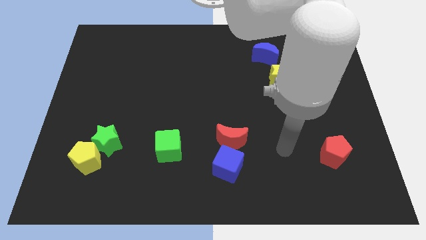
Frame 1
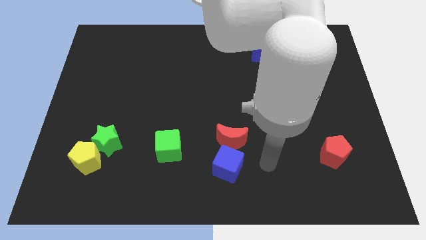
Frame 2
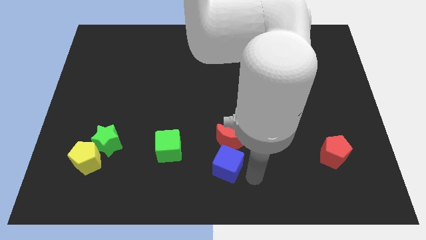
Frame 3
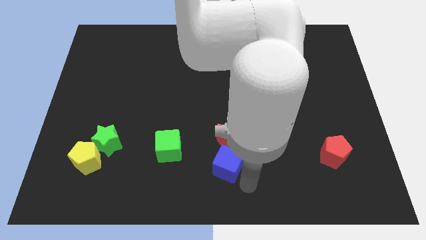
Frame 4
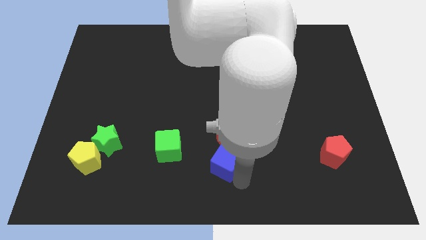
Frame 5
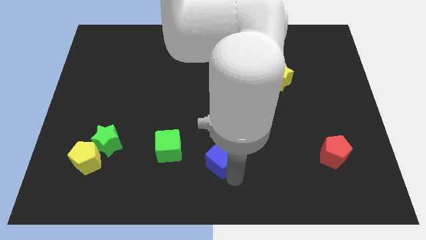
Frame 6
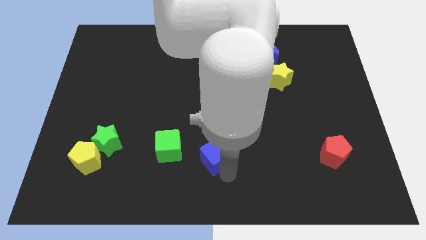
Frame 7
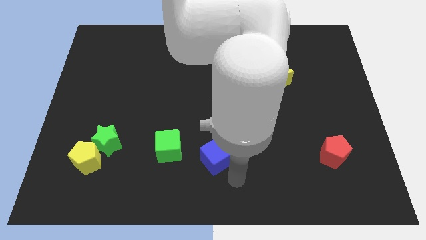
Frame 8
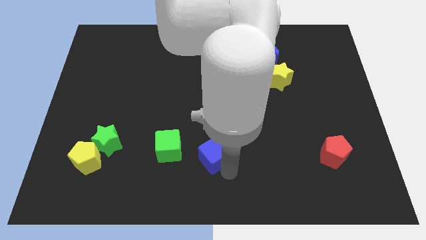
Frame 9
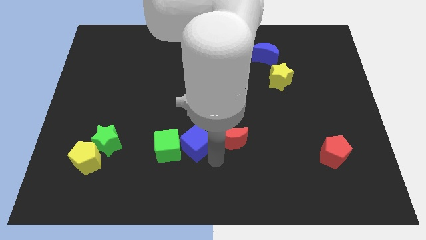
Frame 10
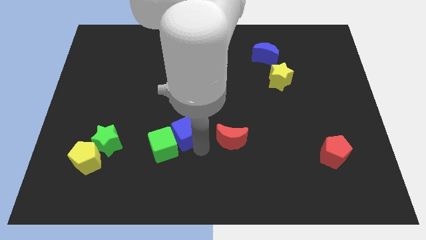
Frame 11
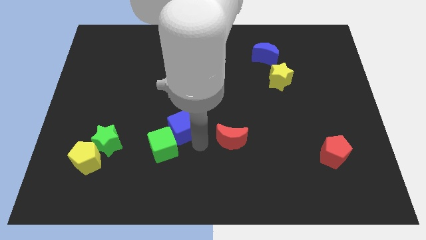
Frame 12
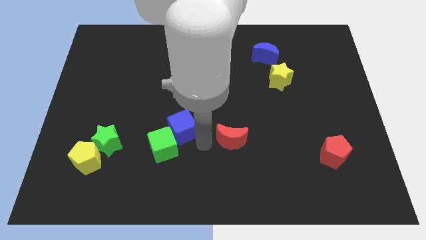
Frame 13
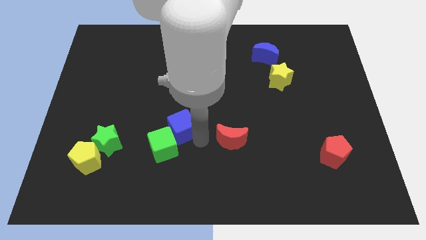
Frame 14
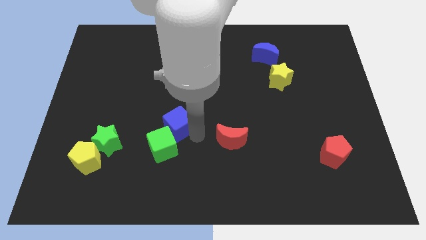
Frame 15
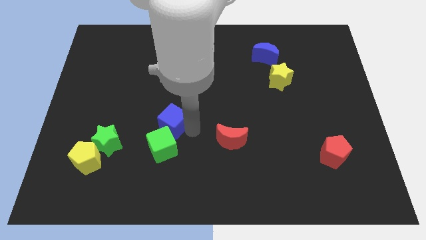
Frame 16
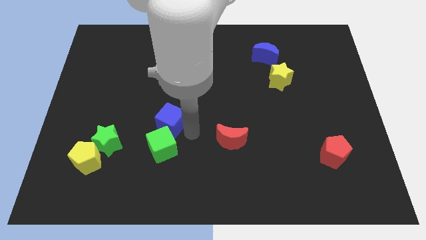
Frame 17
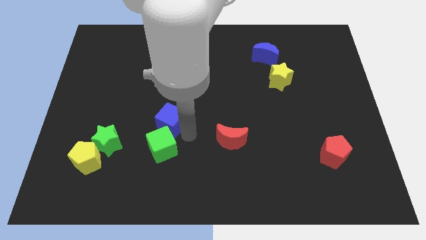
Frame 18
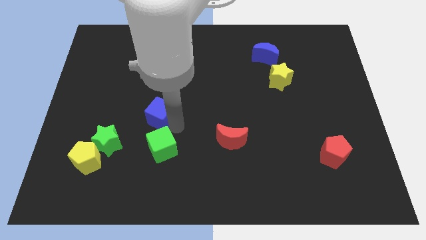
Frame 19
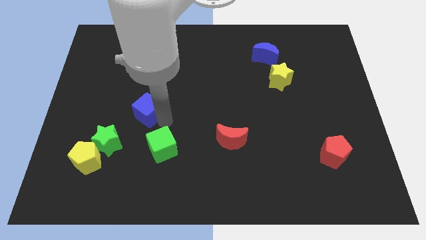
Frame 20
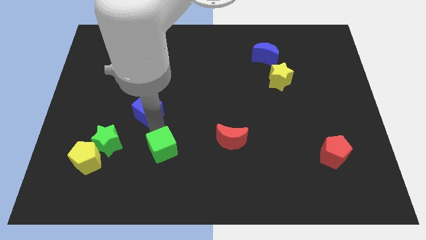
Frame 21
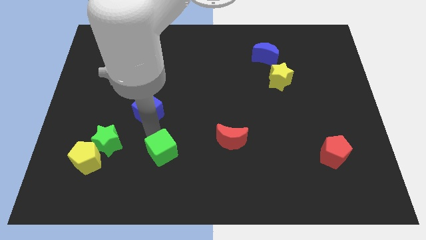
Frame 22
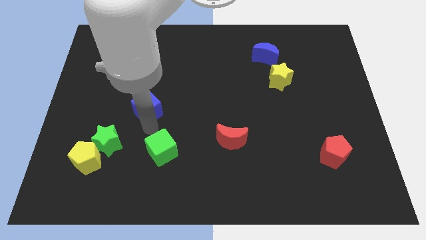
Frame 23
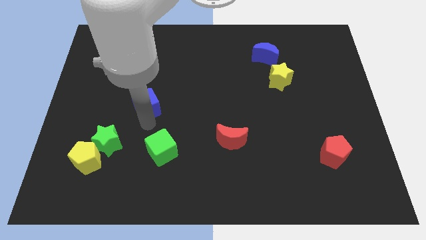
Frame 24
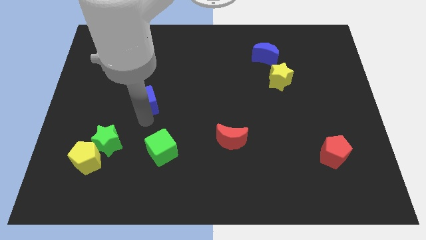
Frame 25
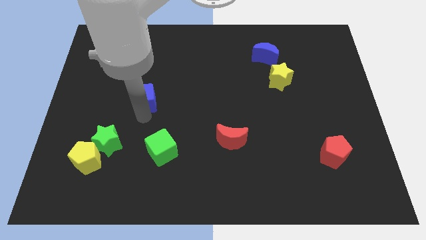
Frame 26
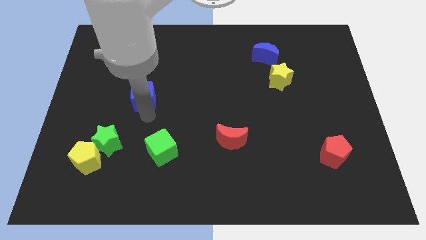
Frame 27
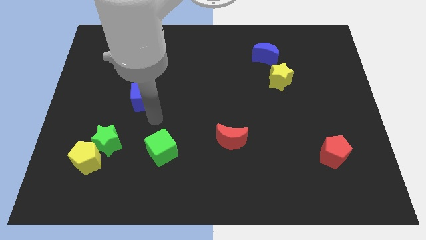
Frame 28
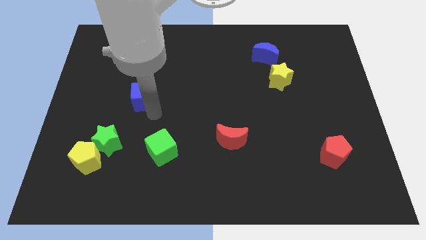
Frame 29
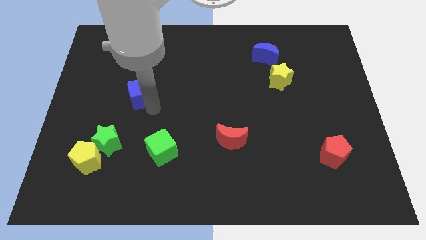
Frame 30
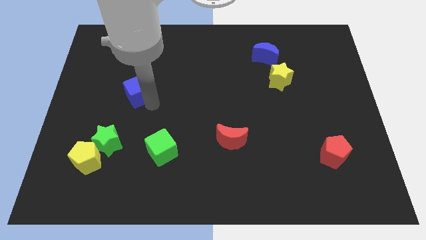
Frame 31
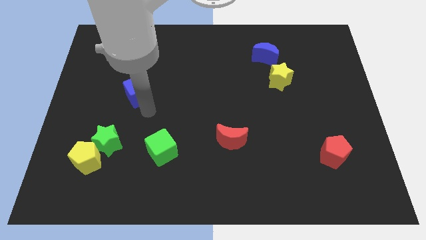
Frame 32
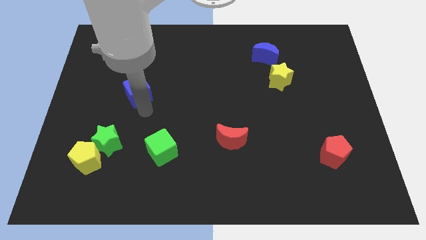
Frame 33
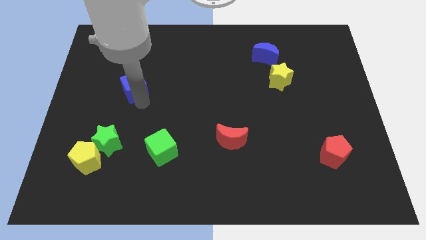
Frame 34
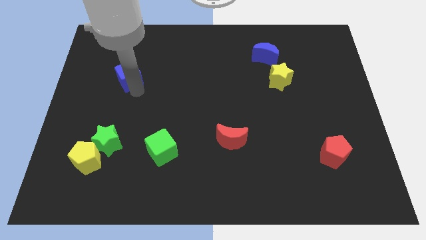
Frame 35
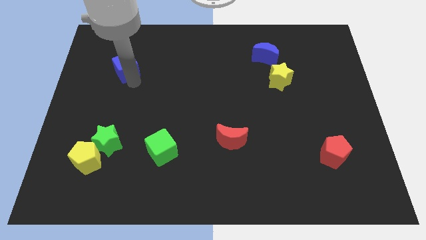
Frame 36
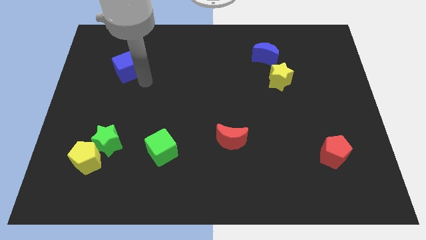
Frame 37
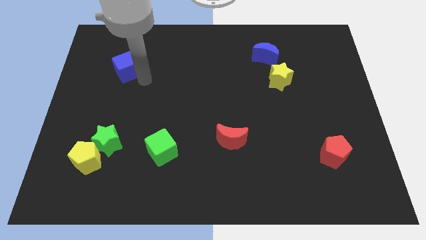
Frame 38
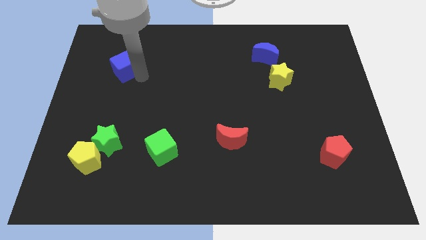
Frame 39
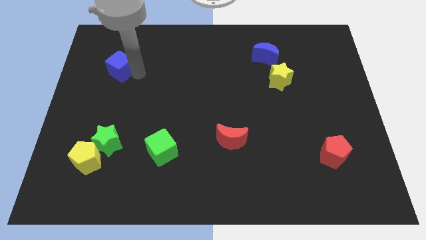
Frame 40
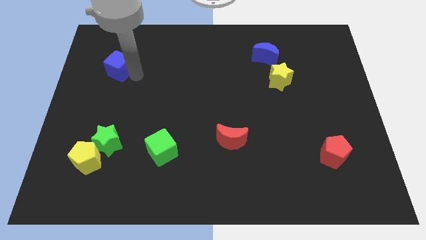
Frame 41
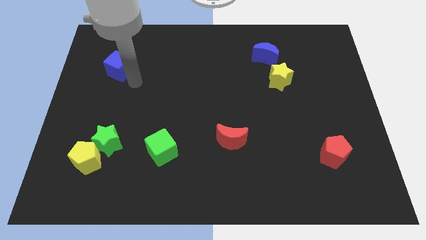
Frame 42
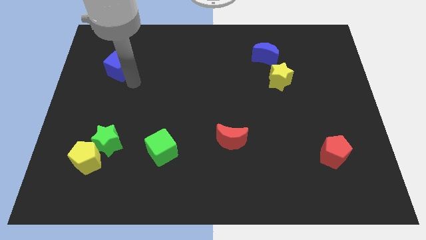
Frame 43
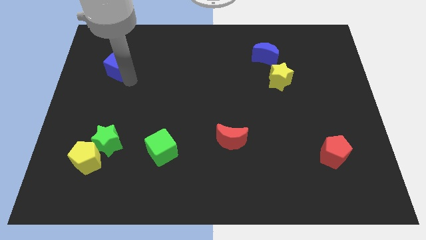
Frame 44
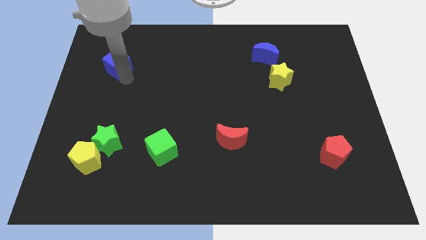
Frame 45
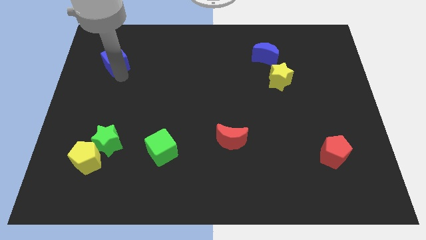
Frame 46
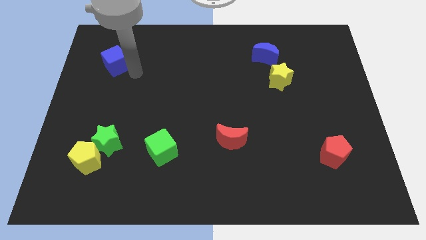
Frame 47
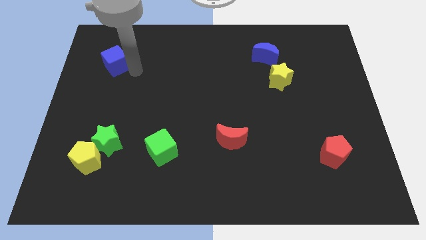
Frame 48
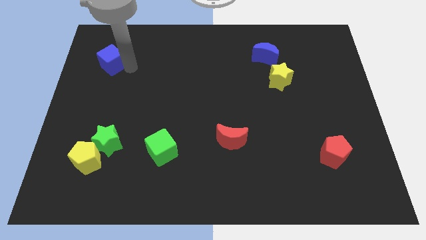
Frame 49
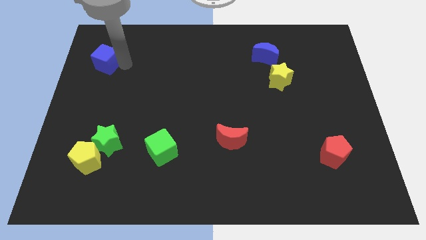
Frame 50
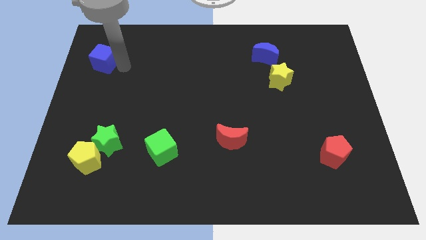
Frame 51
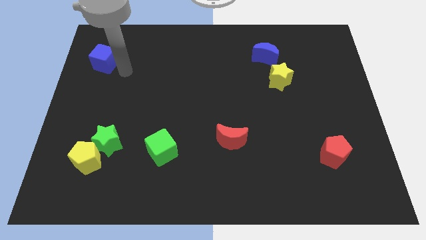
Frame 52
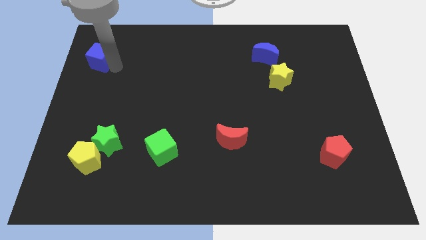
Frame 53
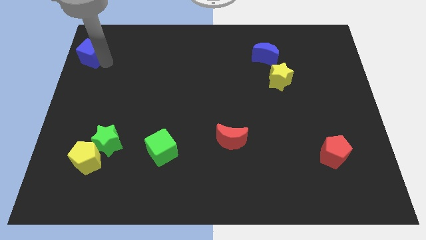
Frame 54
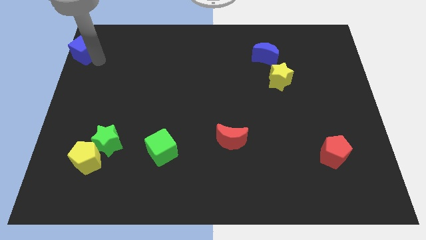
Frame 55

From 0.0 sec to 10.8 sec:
push the blue cube to the top left of the board

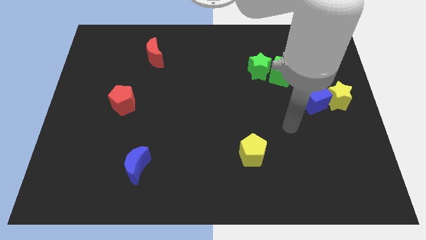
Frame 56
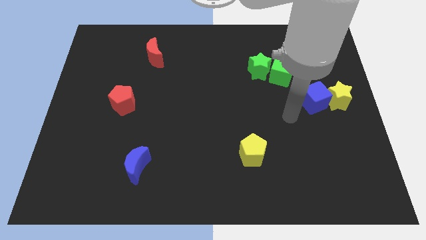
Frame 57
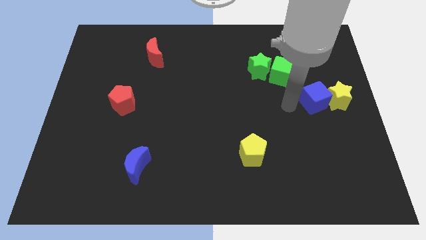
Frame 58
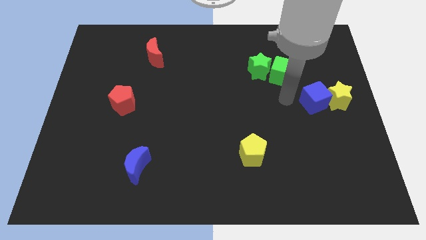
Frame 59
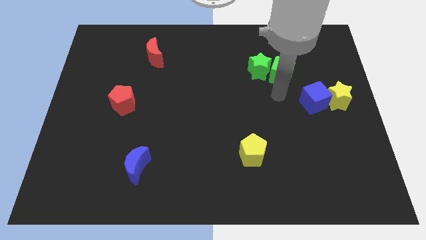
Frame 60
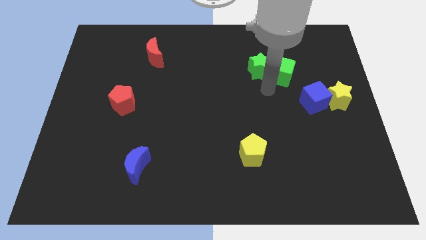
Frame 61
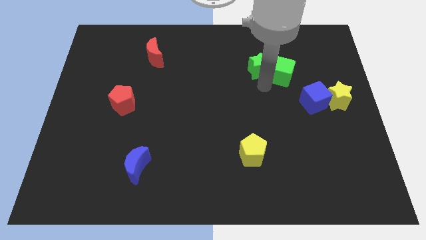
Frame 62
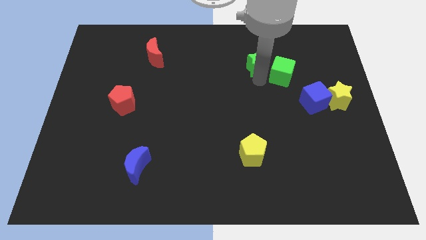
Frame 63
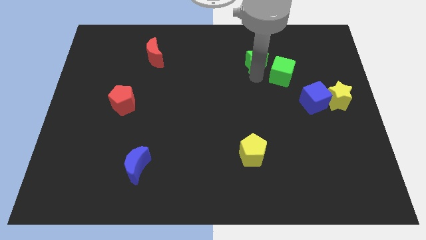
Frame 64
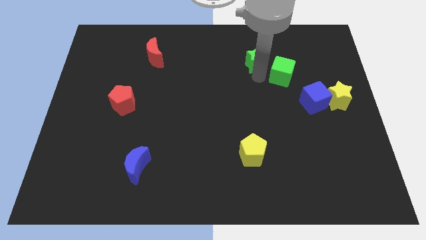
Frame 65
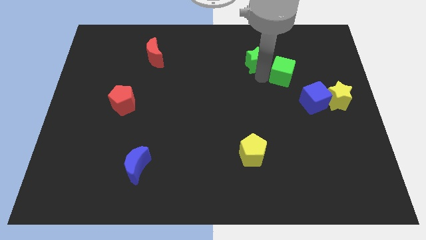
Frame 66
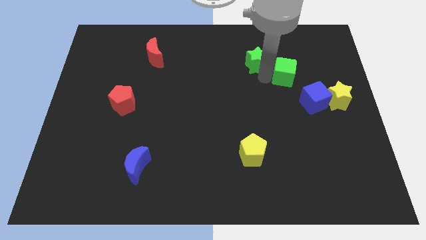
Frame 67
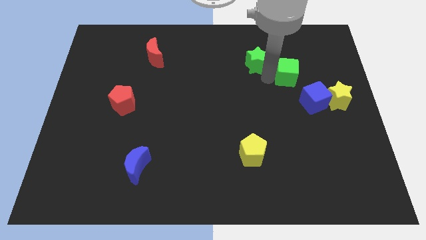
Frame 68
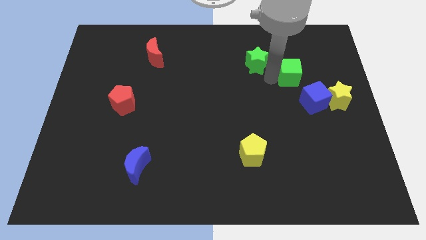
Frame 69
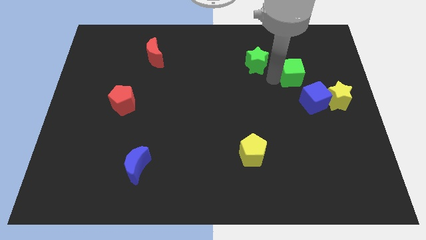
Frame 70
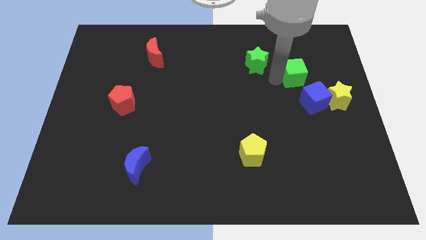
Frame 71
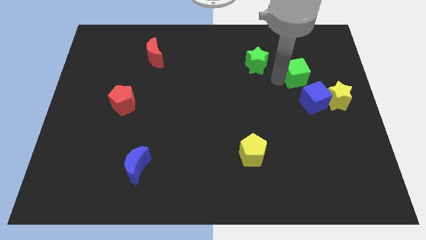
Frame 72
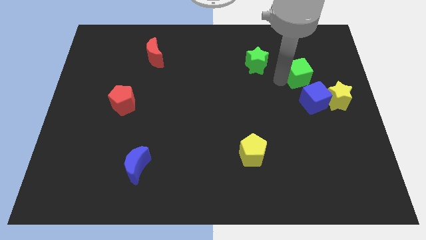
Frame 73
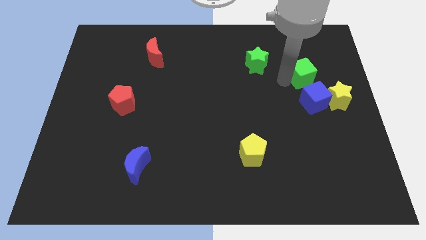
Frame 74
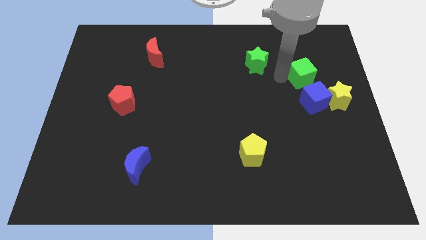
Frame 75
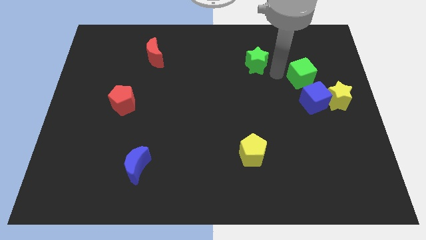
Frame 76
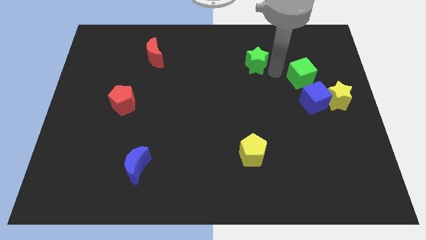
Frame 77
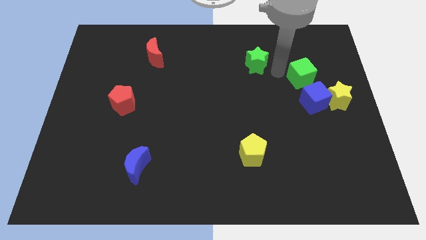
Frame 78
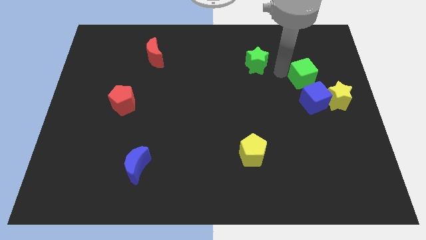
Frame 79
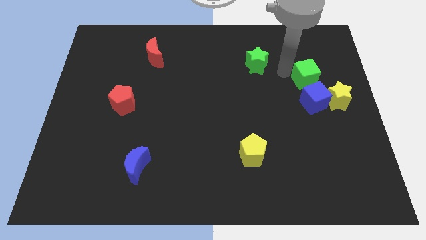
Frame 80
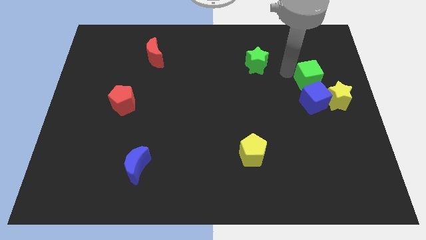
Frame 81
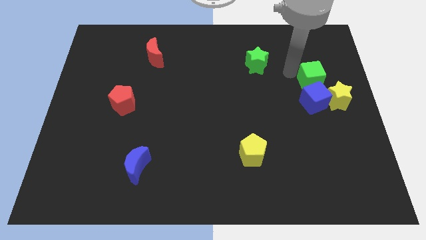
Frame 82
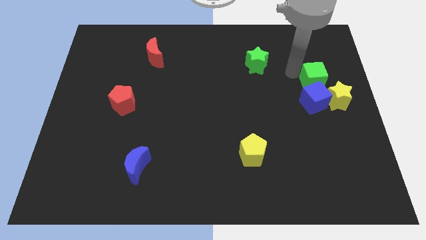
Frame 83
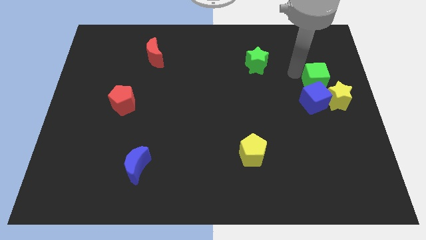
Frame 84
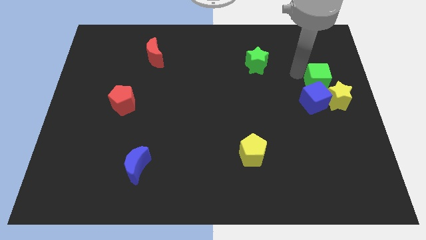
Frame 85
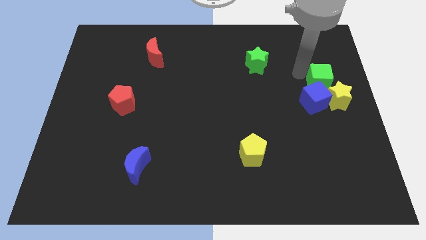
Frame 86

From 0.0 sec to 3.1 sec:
put the green cube to the right side of the board
